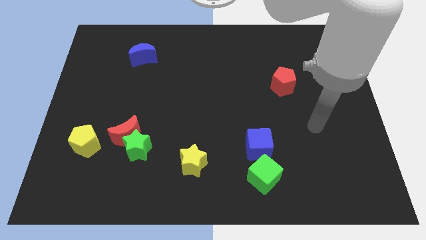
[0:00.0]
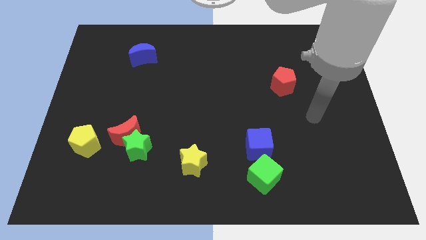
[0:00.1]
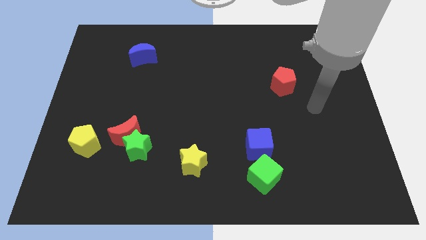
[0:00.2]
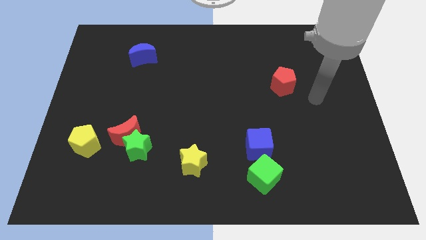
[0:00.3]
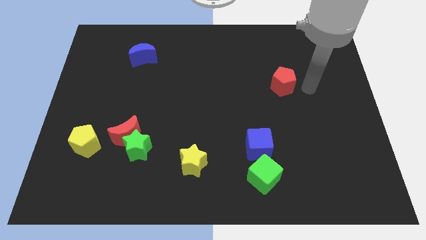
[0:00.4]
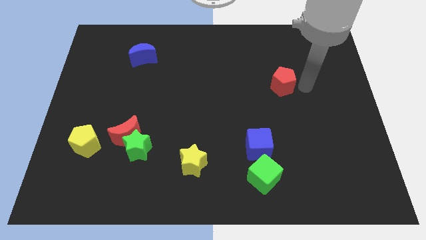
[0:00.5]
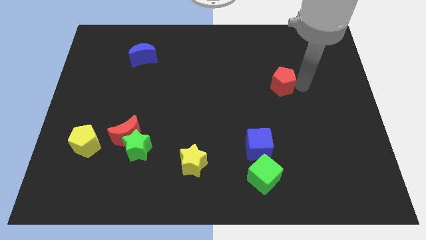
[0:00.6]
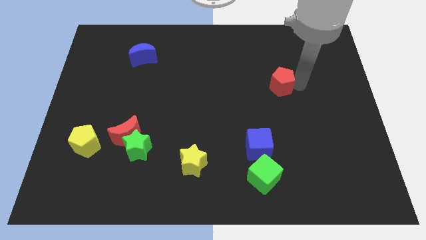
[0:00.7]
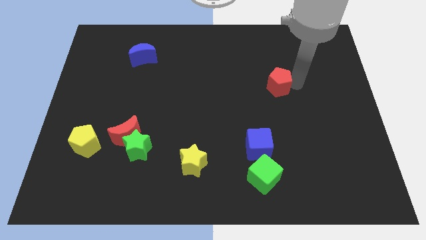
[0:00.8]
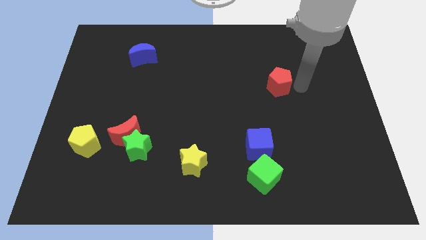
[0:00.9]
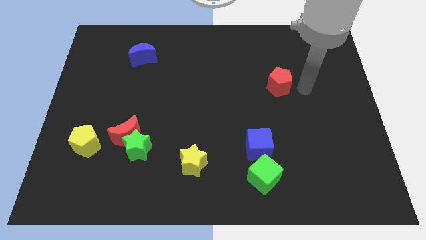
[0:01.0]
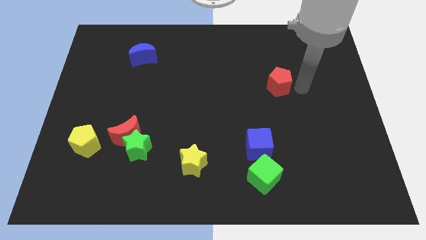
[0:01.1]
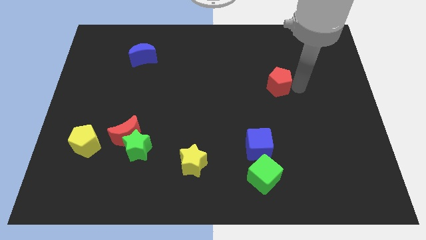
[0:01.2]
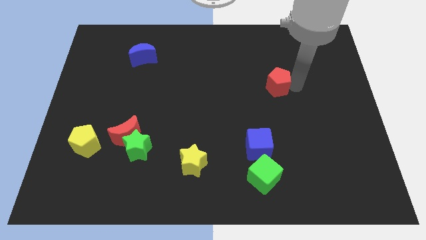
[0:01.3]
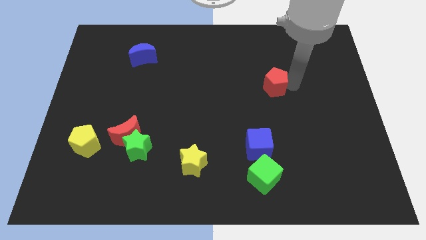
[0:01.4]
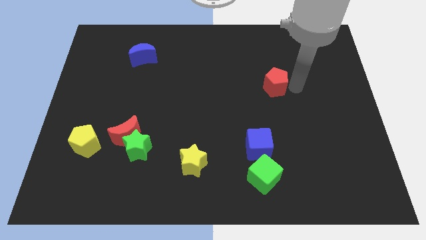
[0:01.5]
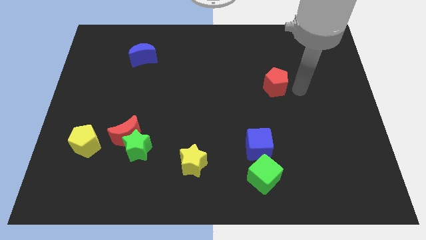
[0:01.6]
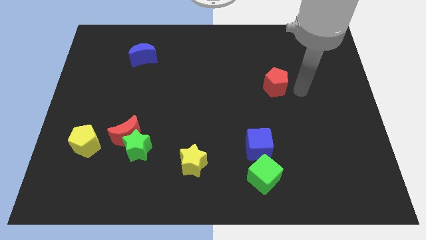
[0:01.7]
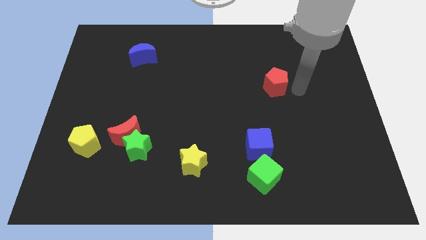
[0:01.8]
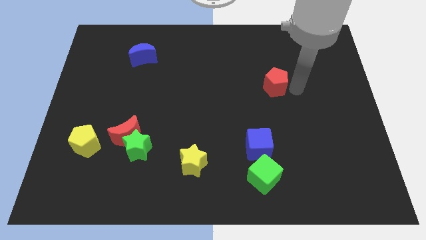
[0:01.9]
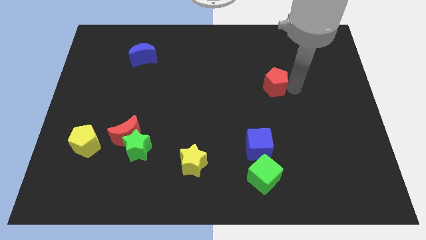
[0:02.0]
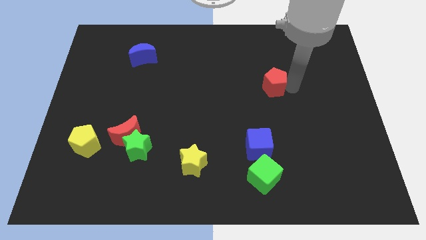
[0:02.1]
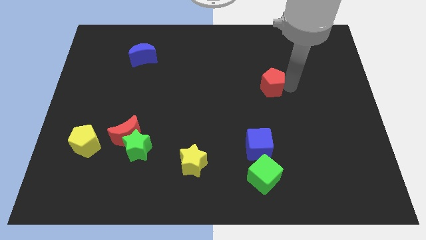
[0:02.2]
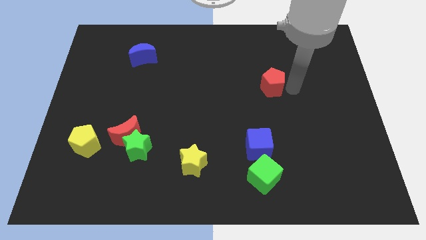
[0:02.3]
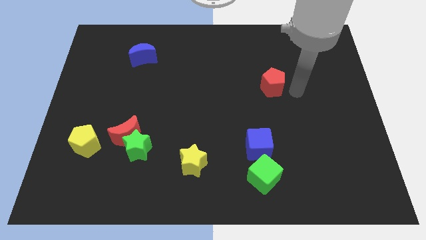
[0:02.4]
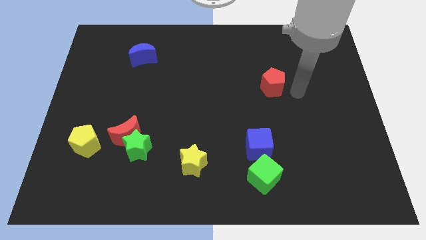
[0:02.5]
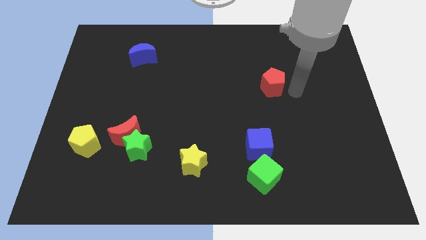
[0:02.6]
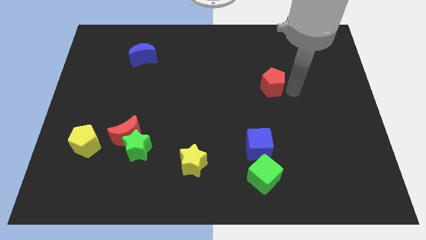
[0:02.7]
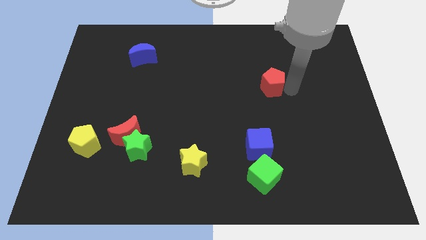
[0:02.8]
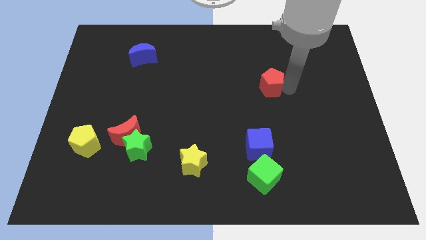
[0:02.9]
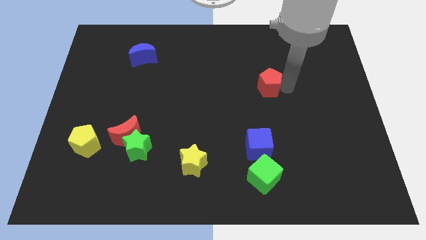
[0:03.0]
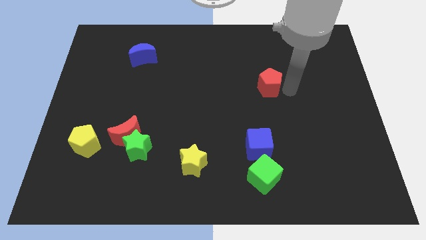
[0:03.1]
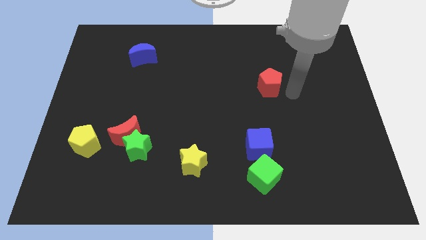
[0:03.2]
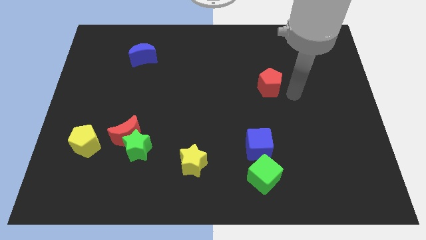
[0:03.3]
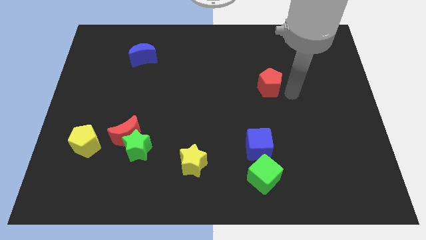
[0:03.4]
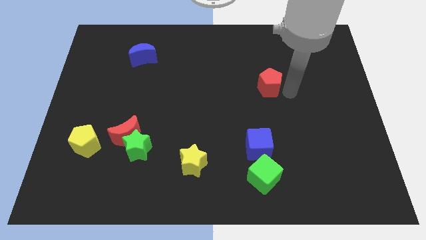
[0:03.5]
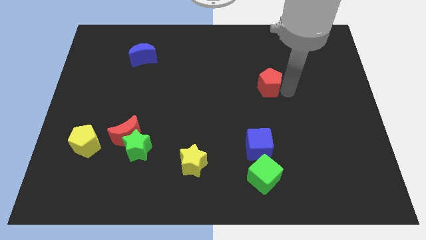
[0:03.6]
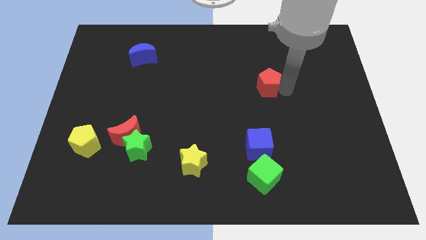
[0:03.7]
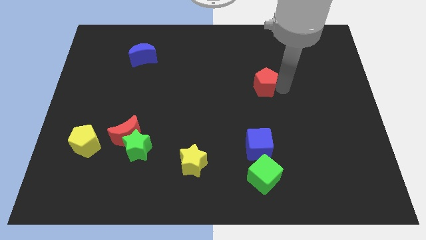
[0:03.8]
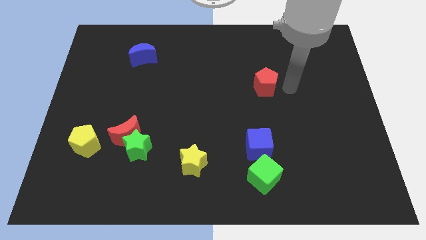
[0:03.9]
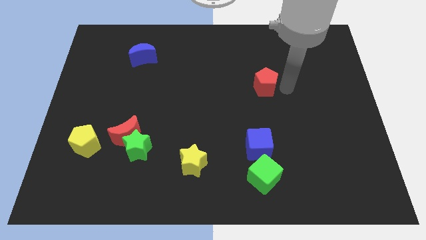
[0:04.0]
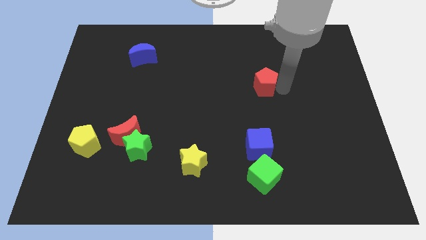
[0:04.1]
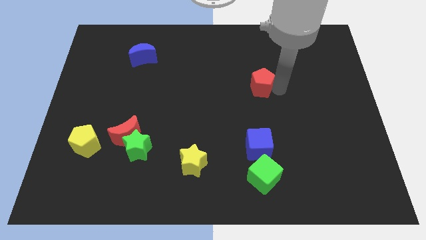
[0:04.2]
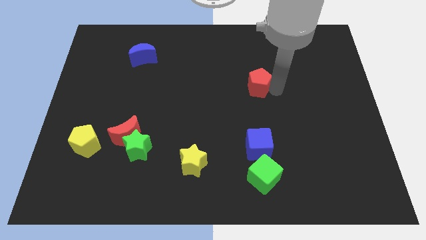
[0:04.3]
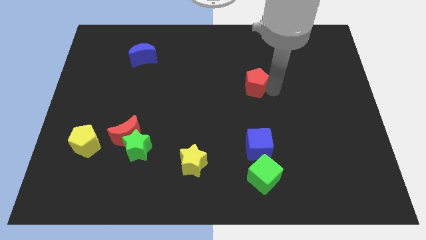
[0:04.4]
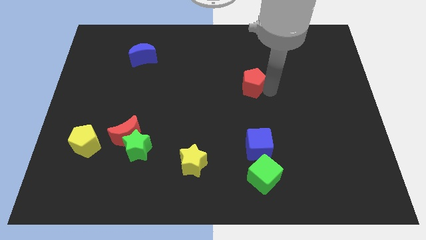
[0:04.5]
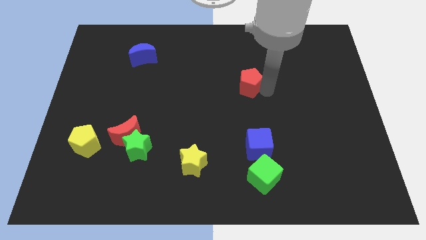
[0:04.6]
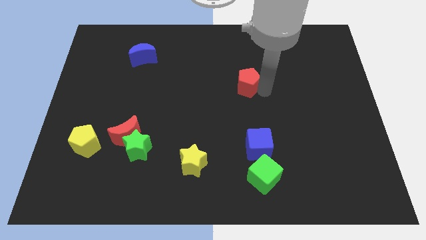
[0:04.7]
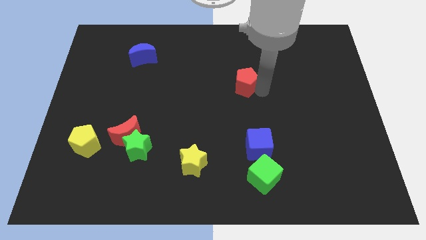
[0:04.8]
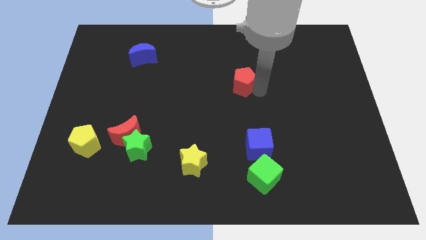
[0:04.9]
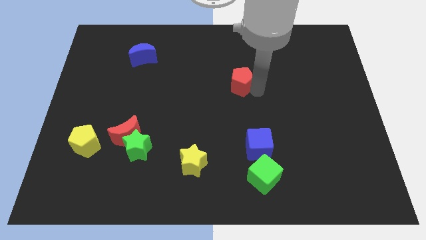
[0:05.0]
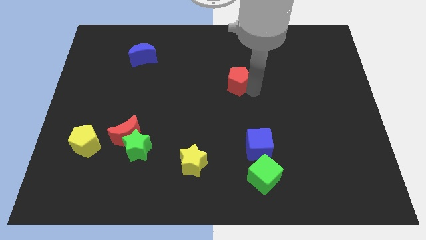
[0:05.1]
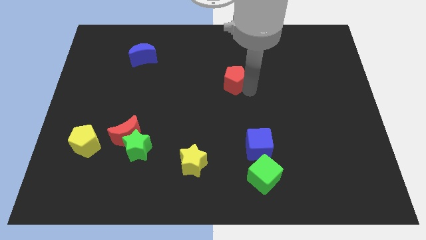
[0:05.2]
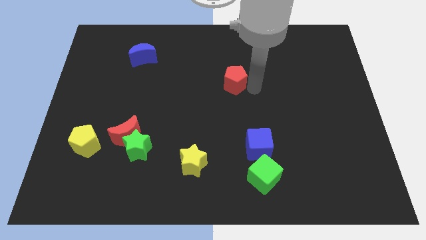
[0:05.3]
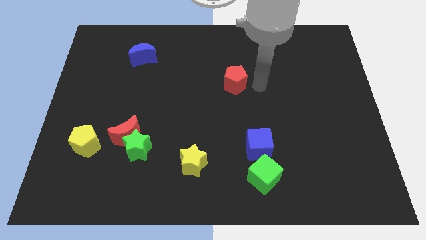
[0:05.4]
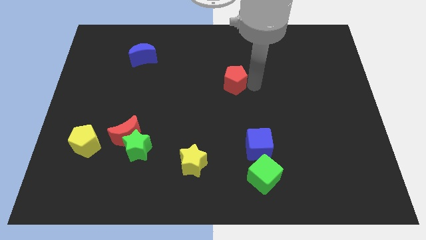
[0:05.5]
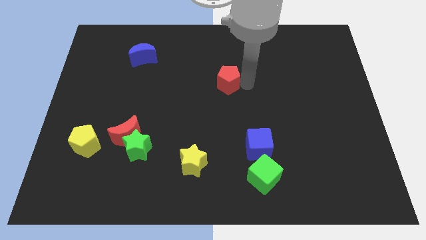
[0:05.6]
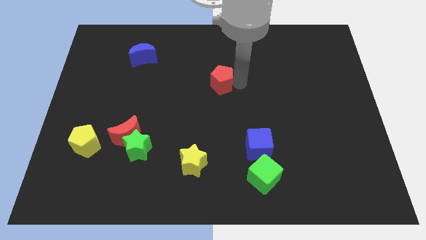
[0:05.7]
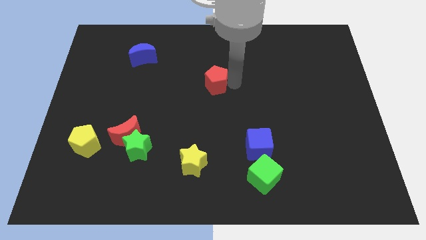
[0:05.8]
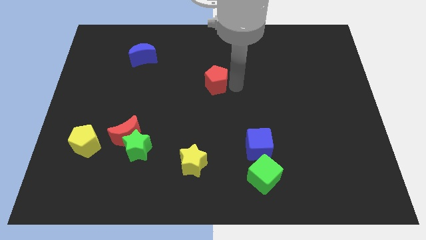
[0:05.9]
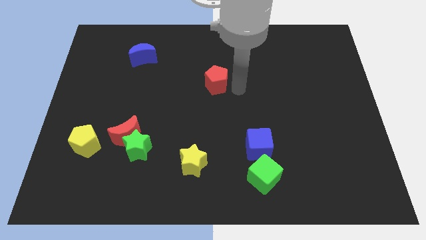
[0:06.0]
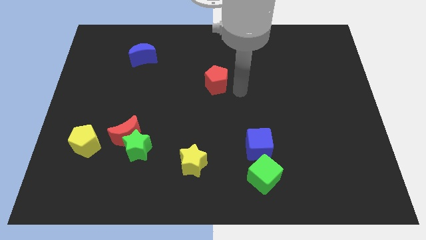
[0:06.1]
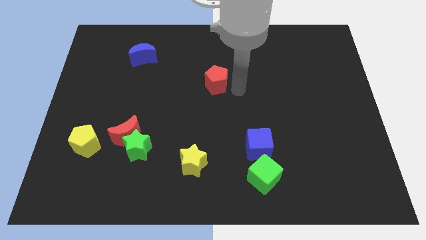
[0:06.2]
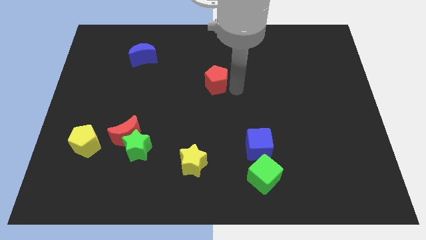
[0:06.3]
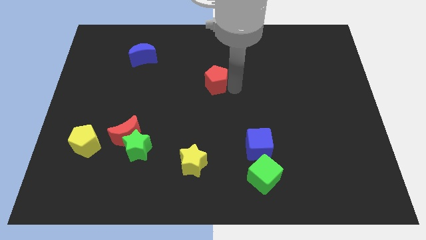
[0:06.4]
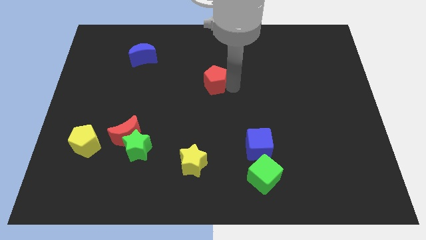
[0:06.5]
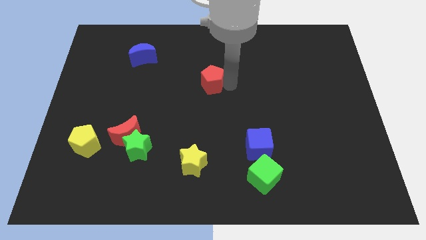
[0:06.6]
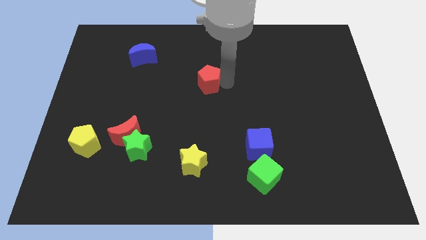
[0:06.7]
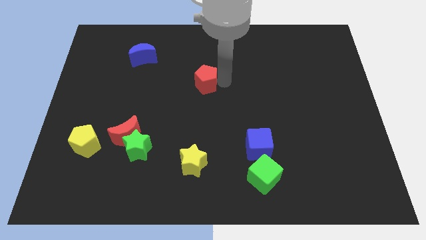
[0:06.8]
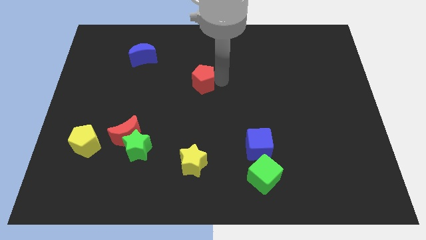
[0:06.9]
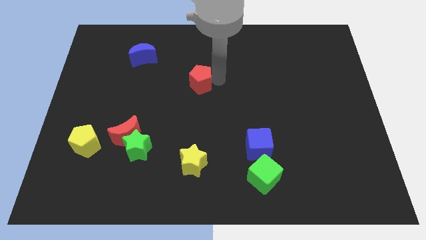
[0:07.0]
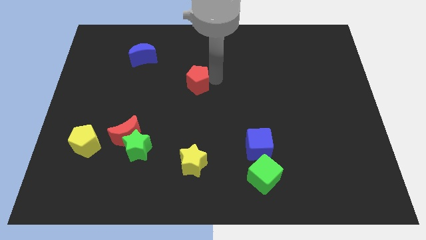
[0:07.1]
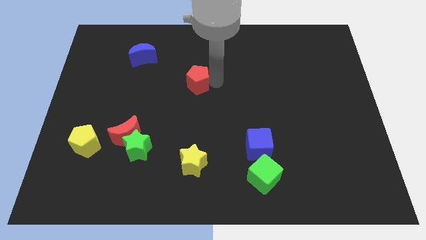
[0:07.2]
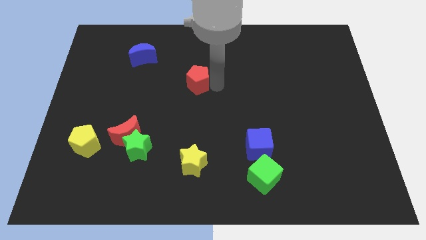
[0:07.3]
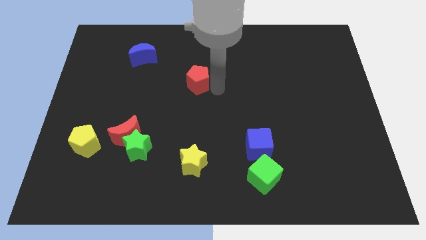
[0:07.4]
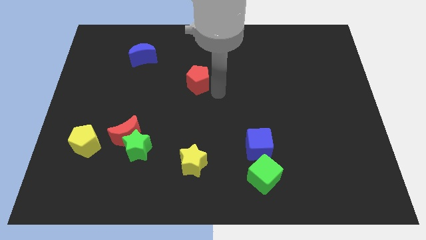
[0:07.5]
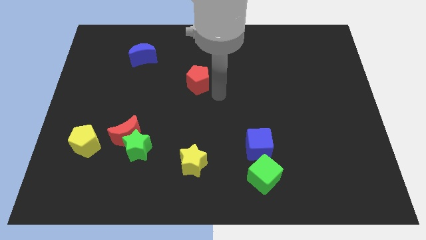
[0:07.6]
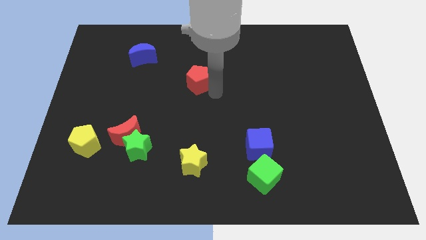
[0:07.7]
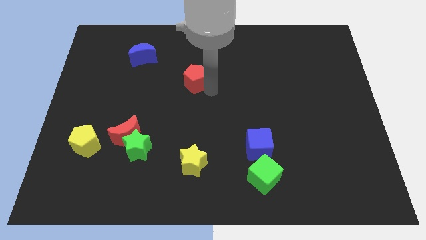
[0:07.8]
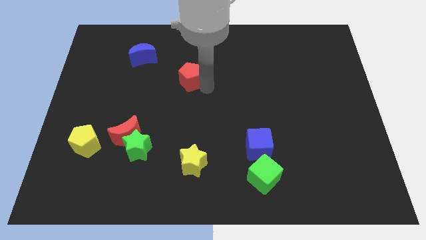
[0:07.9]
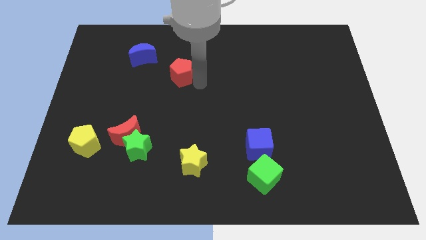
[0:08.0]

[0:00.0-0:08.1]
slide the red pentagon diagonally down and to the right of the blue moon
